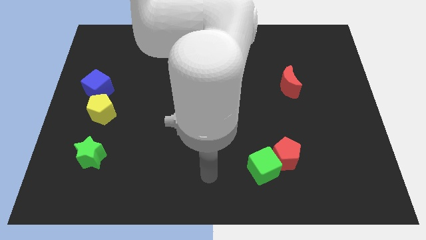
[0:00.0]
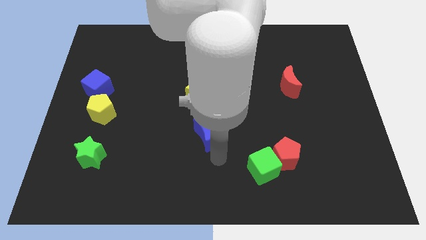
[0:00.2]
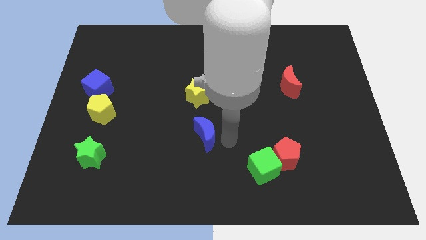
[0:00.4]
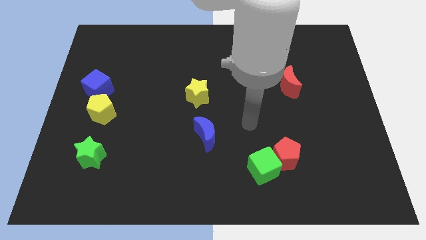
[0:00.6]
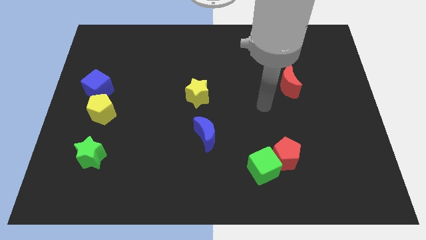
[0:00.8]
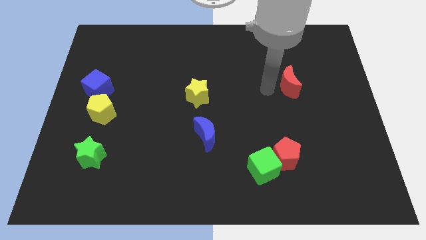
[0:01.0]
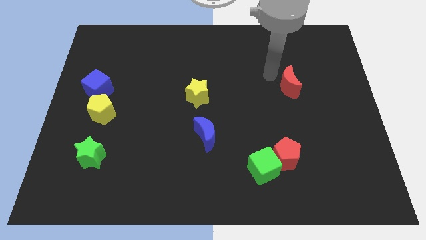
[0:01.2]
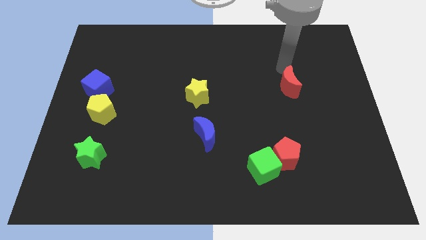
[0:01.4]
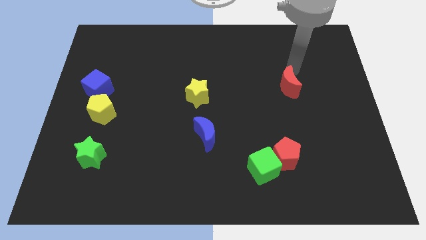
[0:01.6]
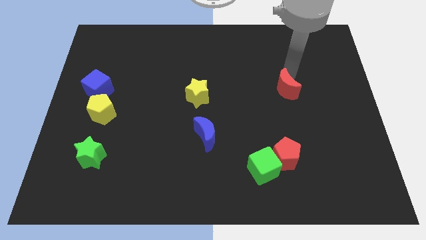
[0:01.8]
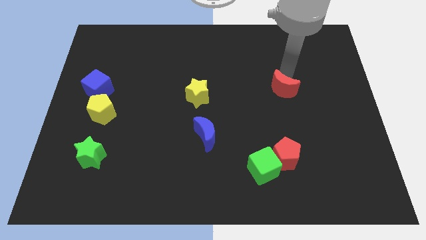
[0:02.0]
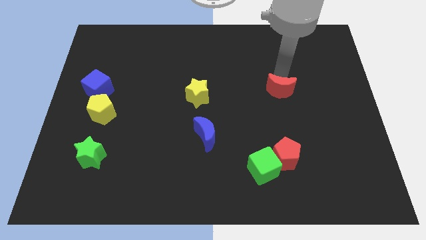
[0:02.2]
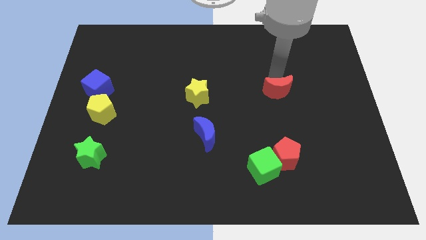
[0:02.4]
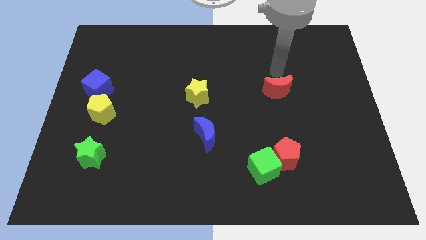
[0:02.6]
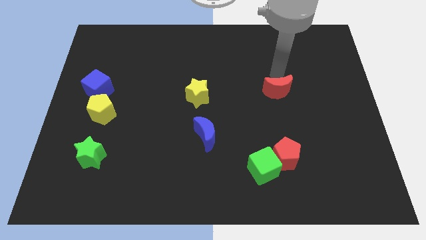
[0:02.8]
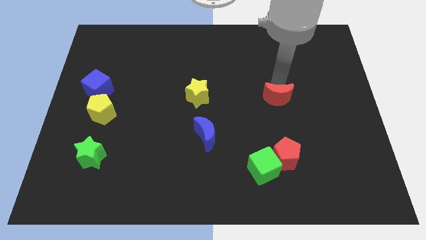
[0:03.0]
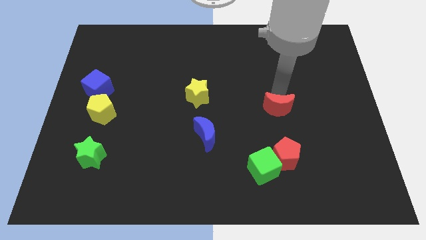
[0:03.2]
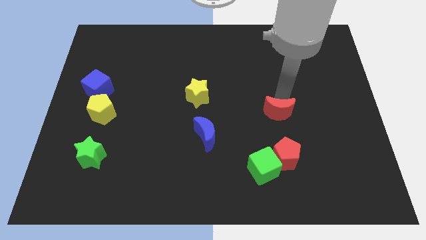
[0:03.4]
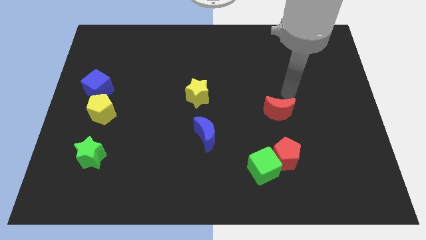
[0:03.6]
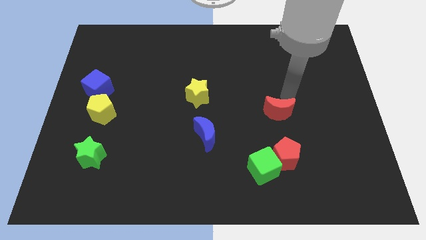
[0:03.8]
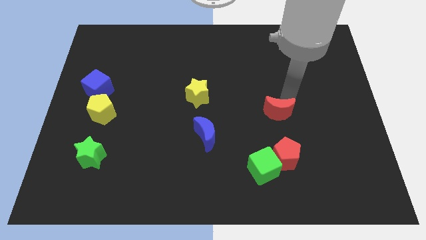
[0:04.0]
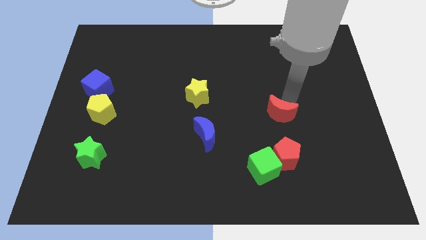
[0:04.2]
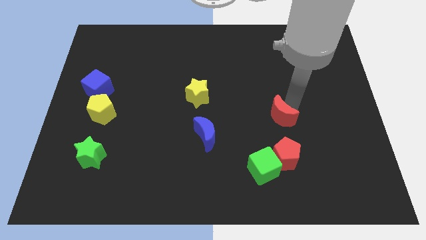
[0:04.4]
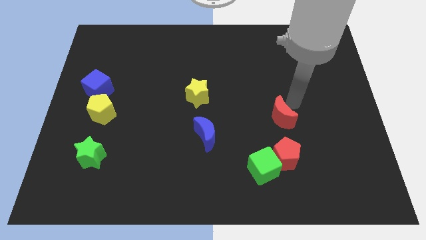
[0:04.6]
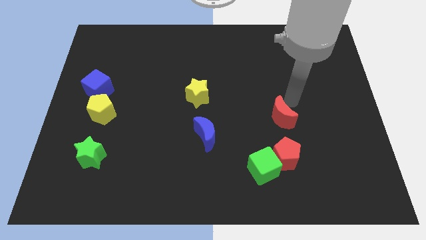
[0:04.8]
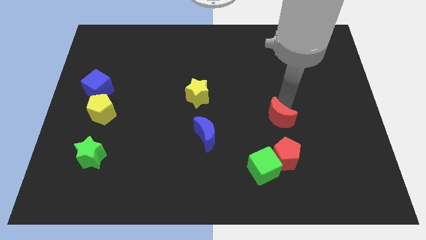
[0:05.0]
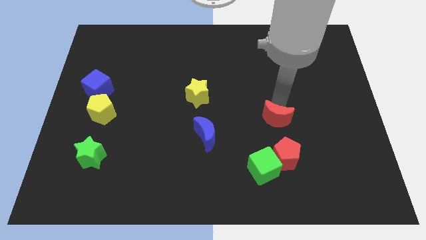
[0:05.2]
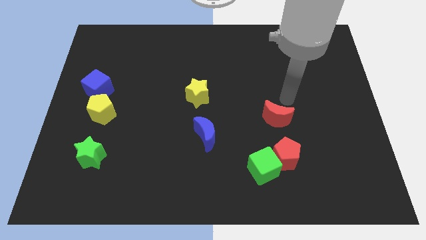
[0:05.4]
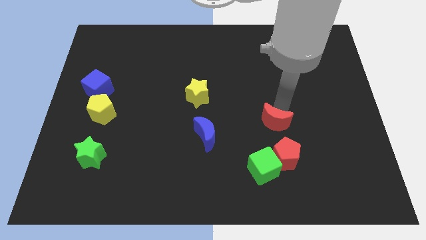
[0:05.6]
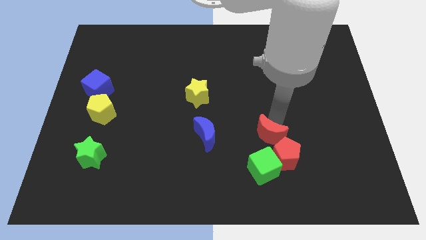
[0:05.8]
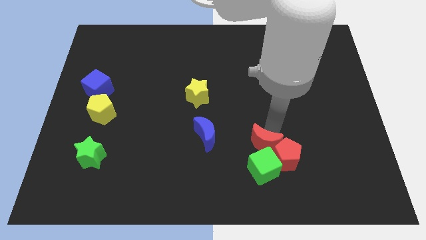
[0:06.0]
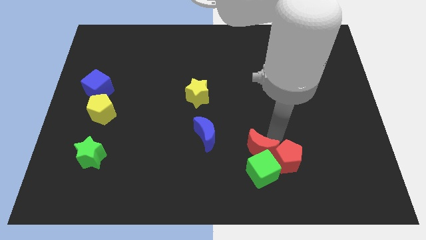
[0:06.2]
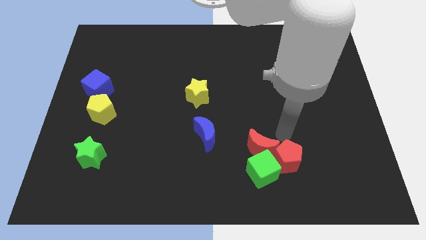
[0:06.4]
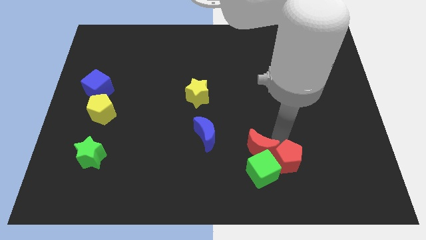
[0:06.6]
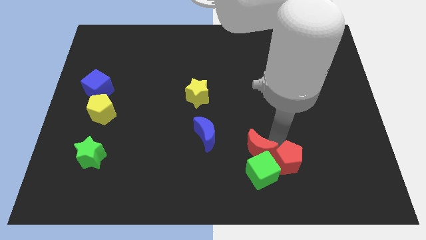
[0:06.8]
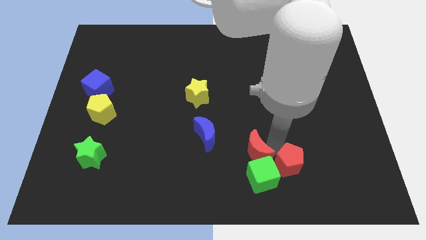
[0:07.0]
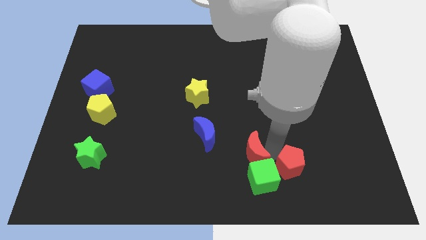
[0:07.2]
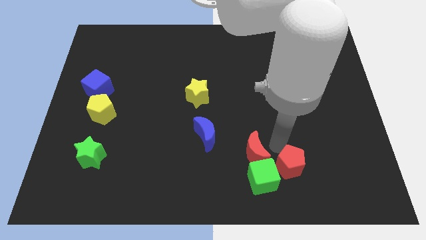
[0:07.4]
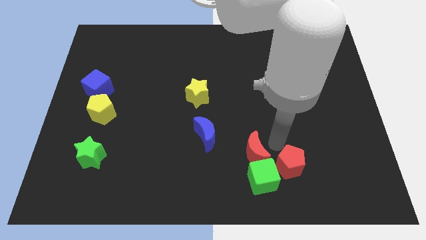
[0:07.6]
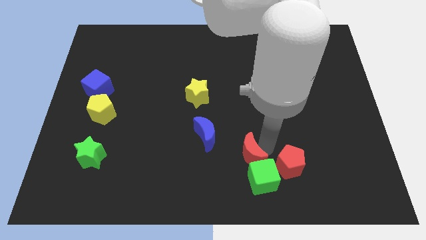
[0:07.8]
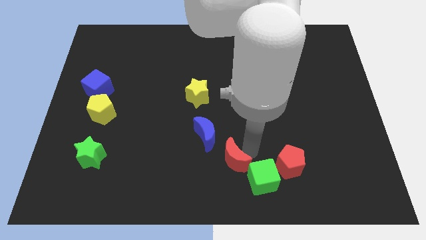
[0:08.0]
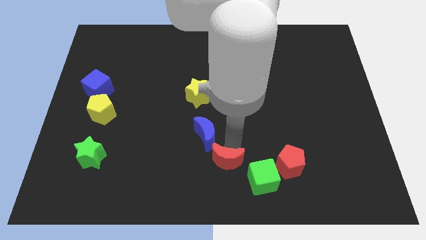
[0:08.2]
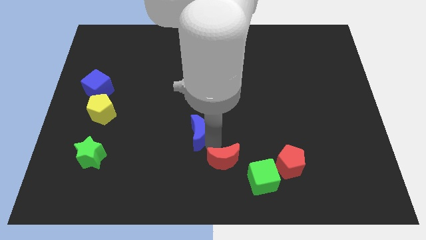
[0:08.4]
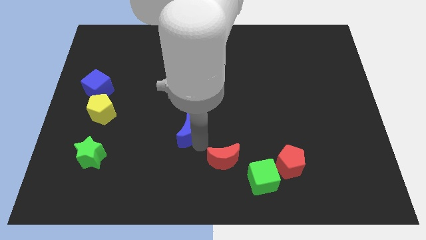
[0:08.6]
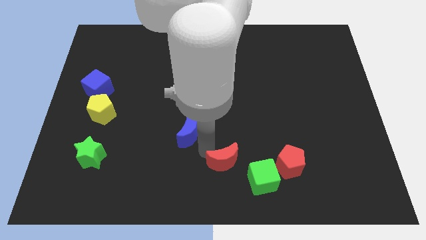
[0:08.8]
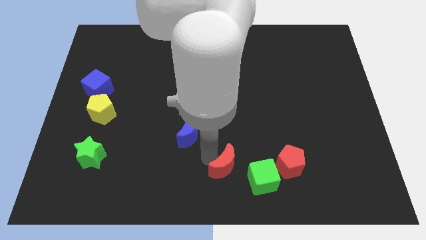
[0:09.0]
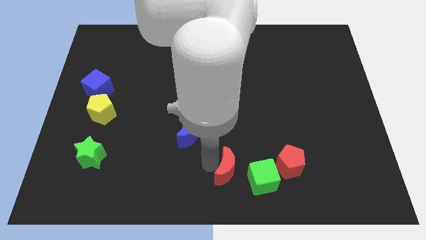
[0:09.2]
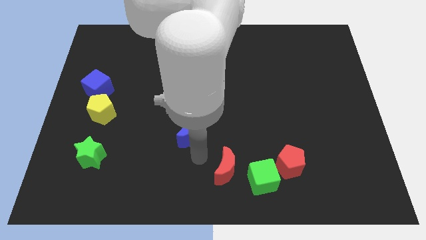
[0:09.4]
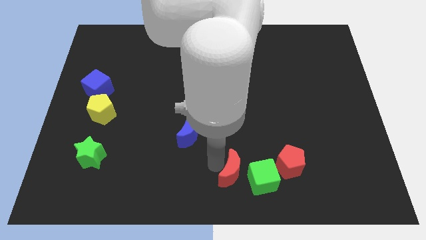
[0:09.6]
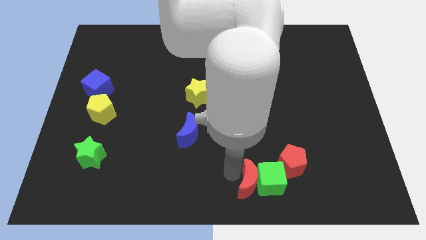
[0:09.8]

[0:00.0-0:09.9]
slide the red moon diagonally down and to the left of the red pentagon

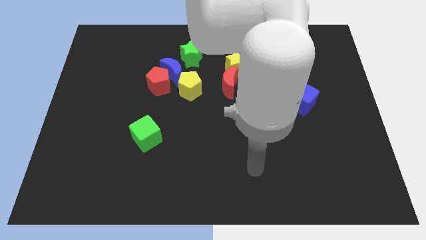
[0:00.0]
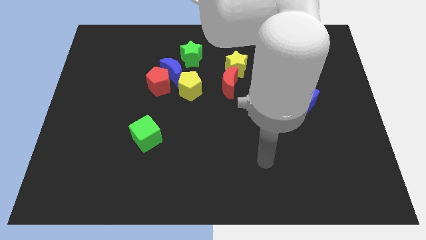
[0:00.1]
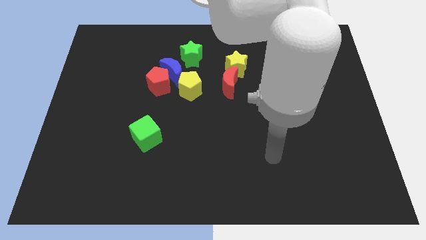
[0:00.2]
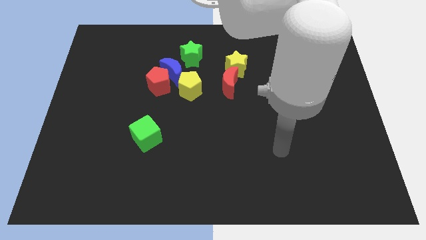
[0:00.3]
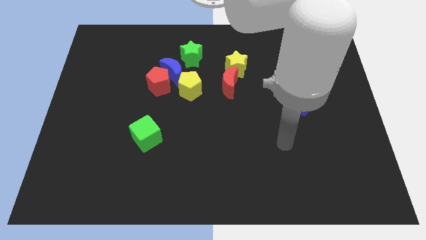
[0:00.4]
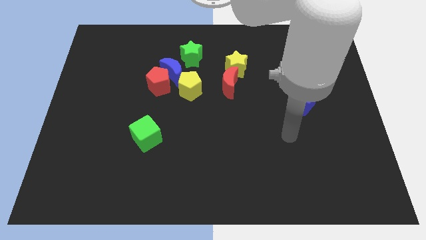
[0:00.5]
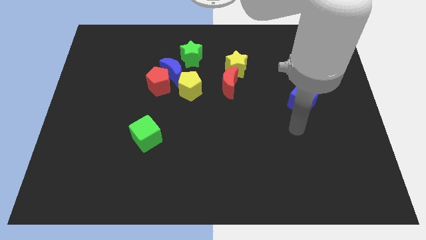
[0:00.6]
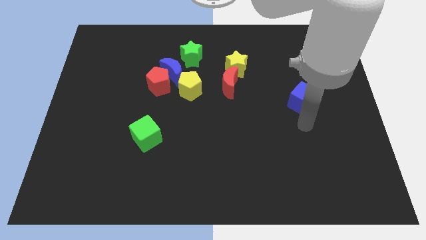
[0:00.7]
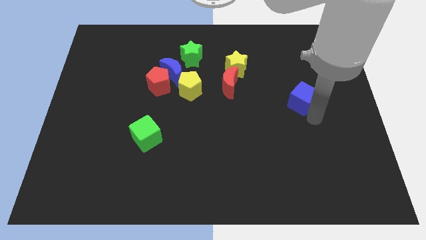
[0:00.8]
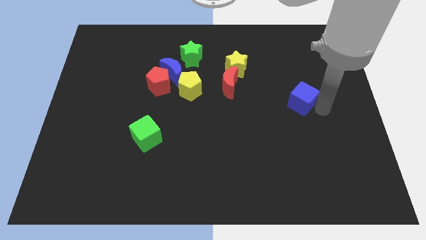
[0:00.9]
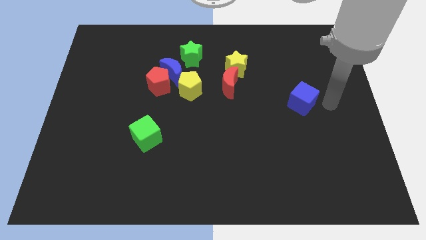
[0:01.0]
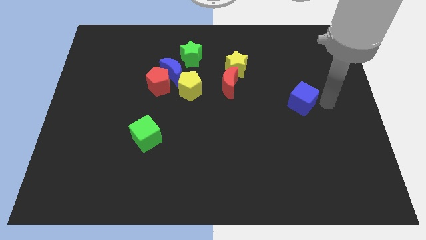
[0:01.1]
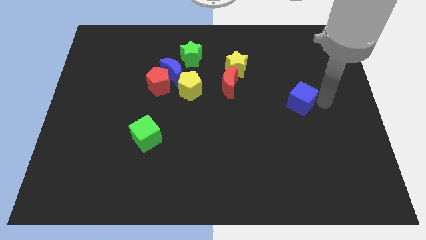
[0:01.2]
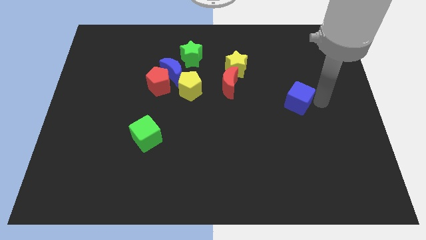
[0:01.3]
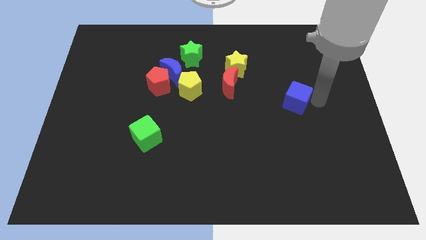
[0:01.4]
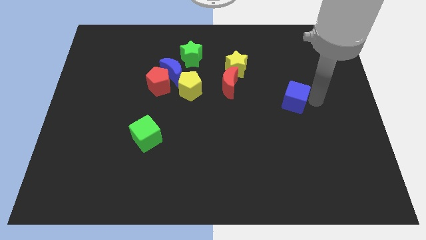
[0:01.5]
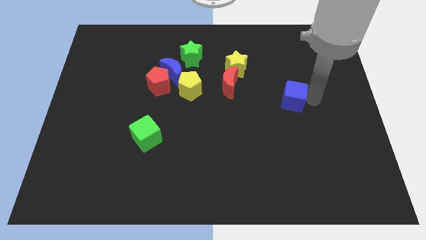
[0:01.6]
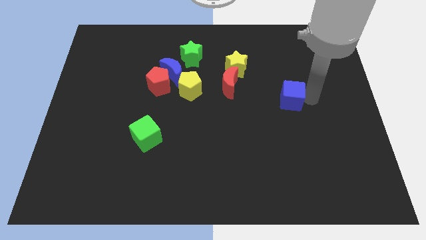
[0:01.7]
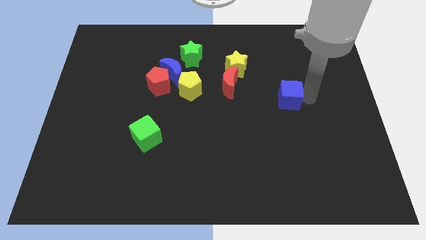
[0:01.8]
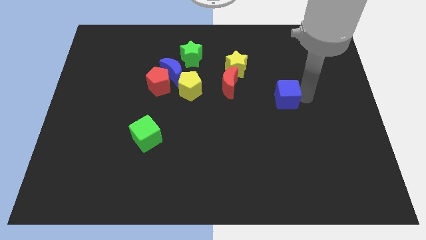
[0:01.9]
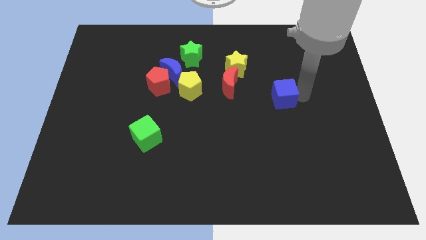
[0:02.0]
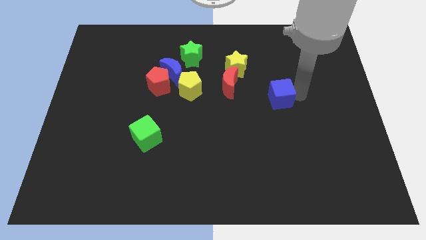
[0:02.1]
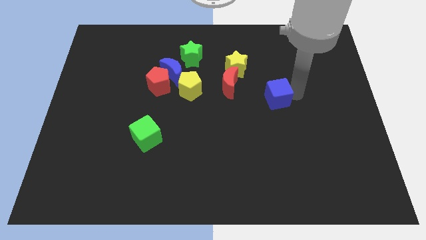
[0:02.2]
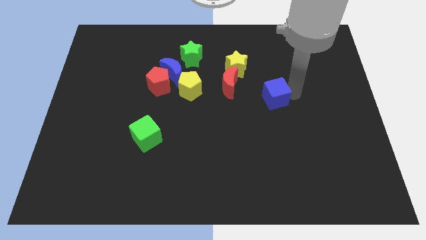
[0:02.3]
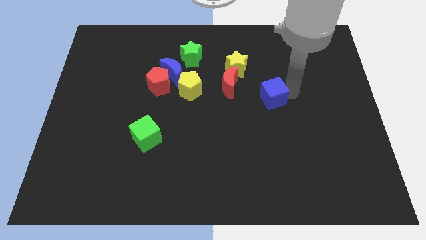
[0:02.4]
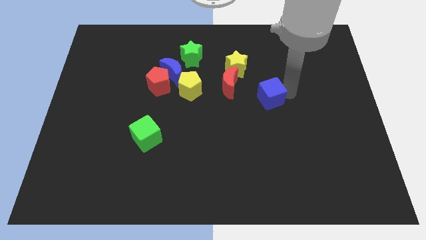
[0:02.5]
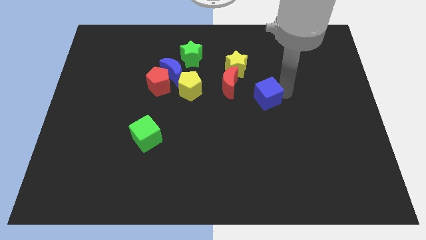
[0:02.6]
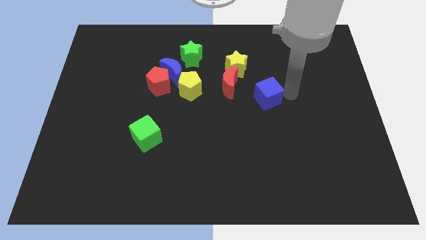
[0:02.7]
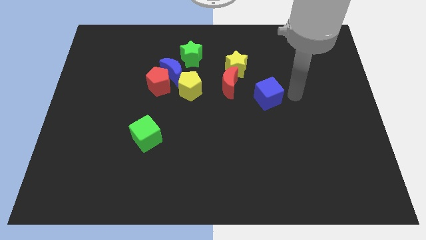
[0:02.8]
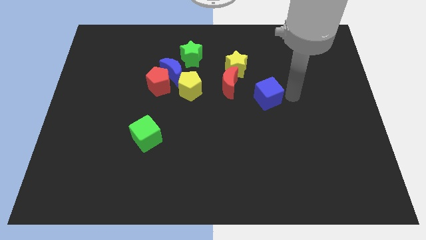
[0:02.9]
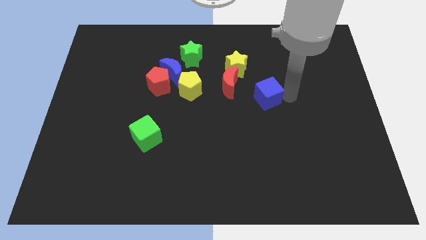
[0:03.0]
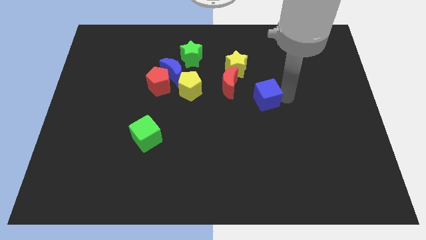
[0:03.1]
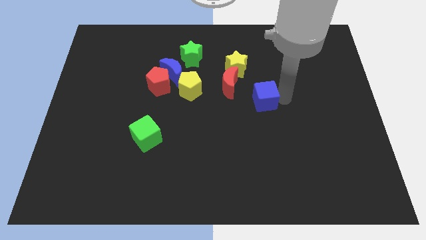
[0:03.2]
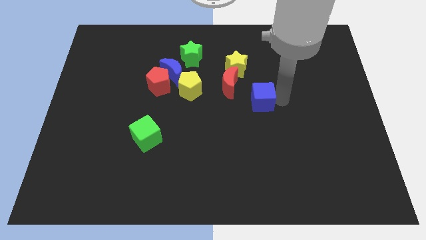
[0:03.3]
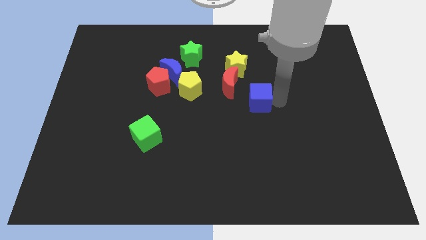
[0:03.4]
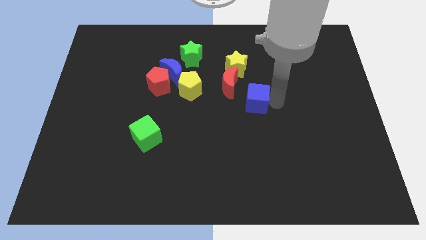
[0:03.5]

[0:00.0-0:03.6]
slide the blue cube to the bottom side of the yellow star
